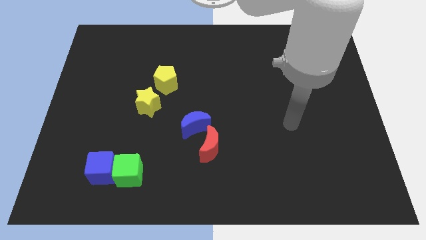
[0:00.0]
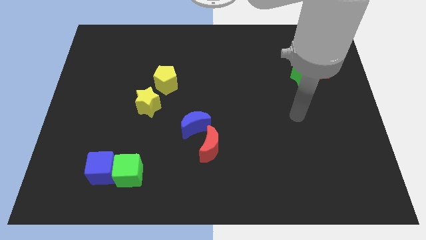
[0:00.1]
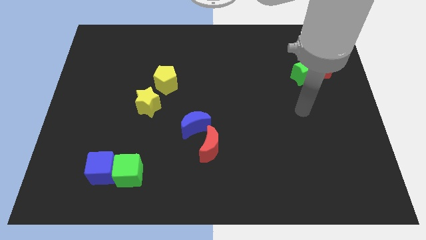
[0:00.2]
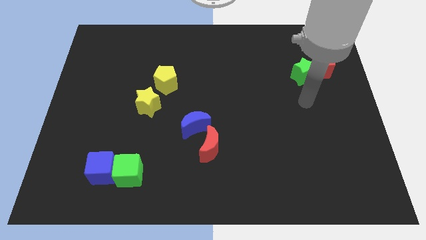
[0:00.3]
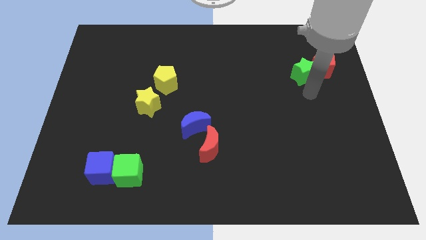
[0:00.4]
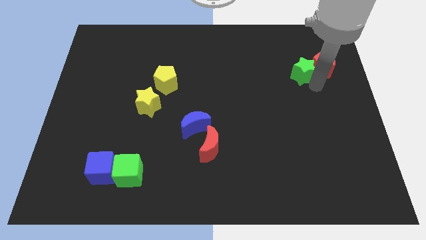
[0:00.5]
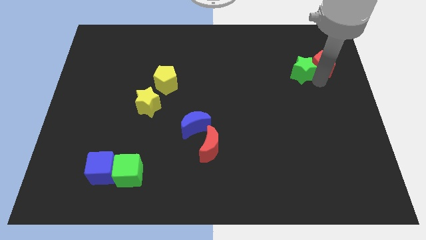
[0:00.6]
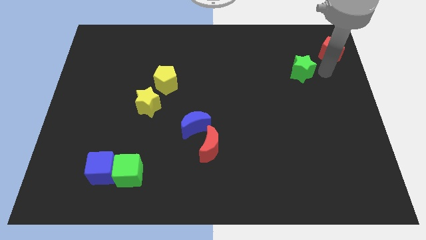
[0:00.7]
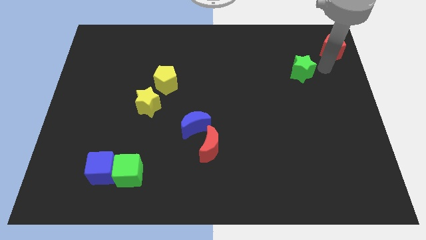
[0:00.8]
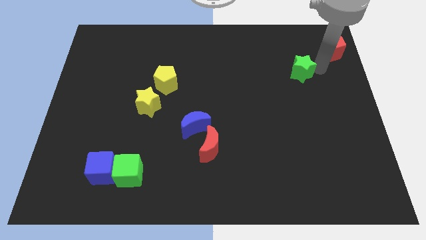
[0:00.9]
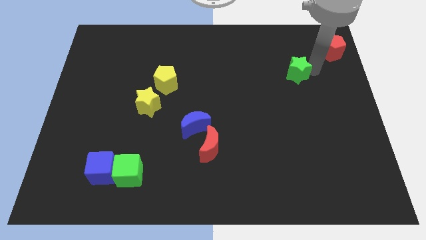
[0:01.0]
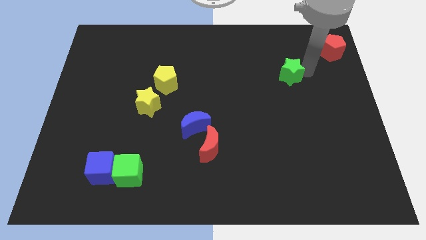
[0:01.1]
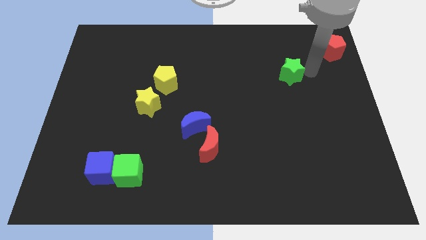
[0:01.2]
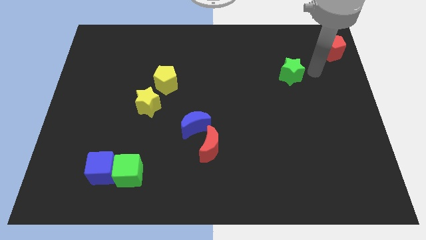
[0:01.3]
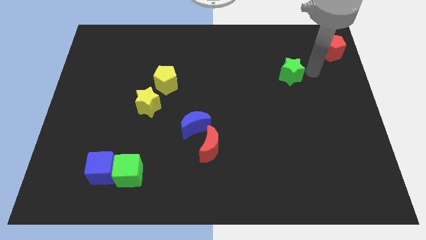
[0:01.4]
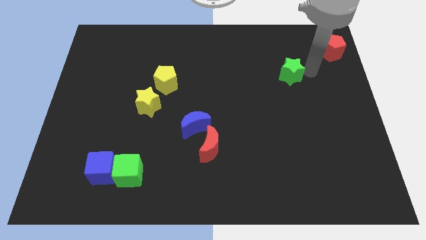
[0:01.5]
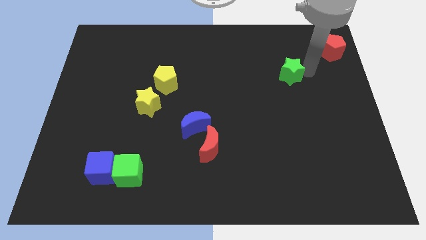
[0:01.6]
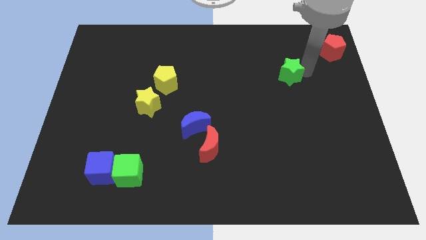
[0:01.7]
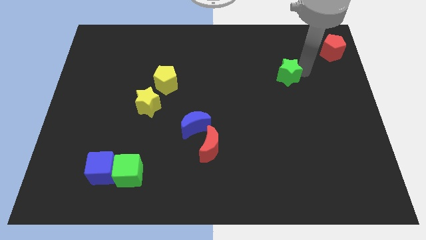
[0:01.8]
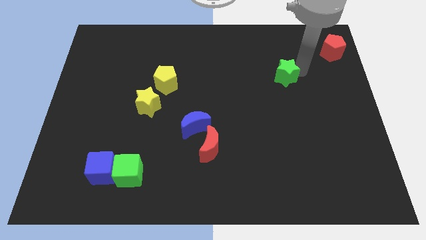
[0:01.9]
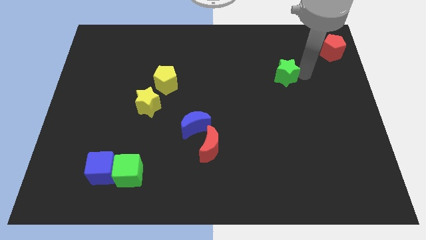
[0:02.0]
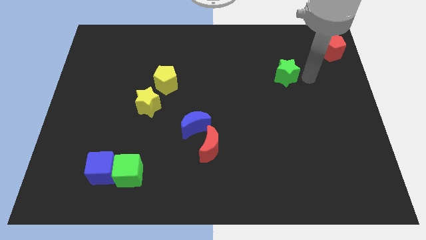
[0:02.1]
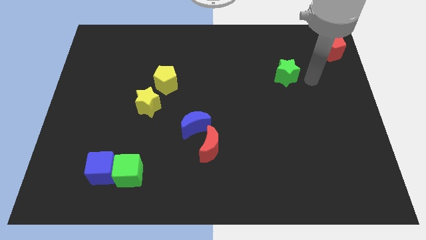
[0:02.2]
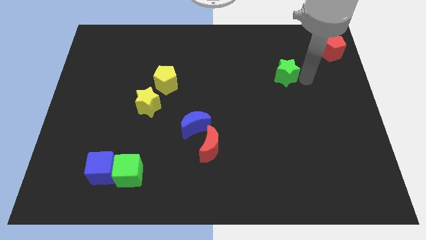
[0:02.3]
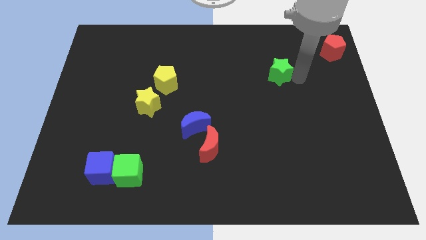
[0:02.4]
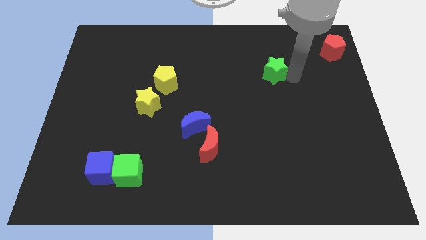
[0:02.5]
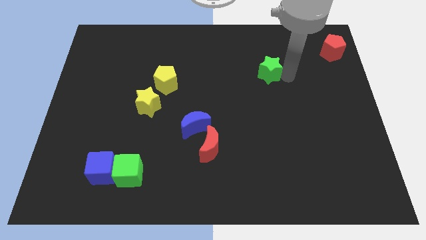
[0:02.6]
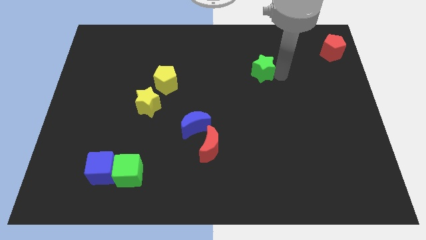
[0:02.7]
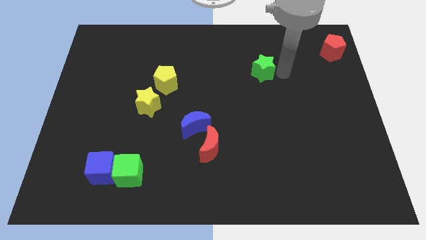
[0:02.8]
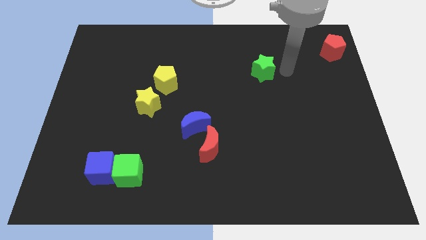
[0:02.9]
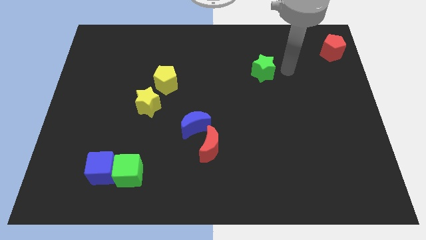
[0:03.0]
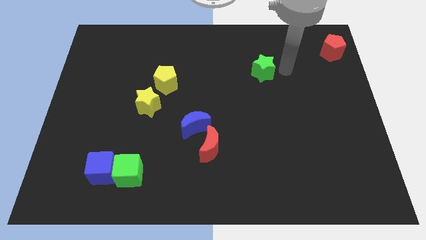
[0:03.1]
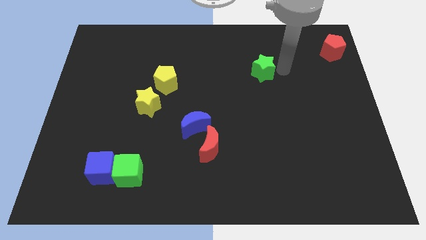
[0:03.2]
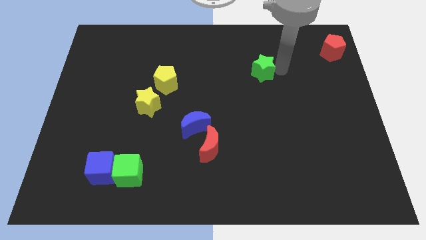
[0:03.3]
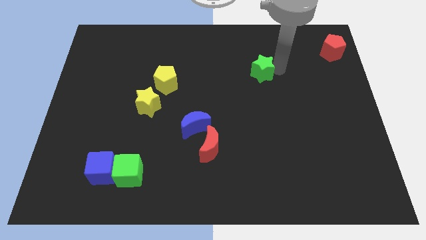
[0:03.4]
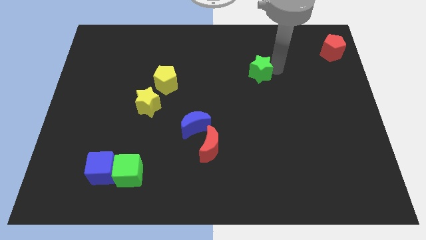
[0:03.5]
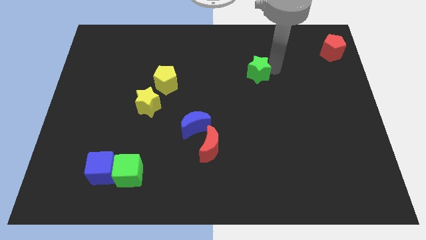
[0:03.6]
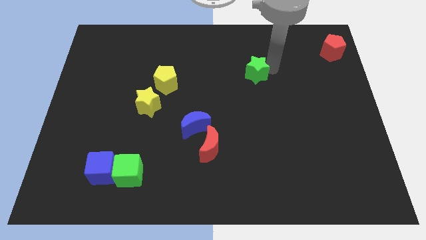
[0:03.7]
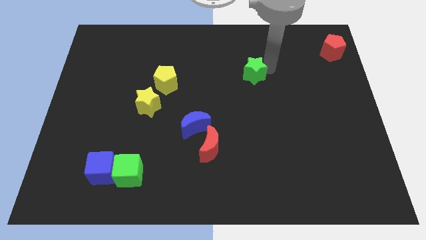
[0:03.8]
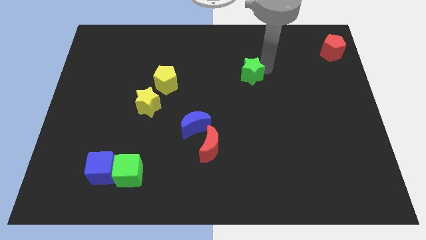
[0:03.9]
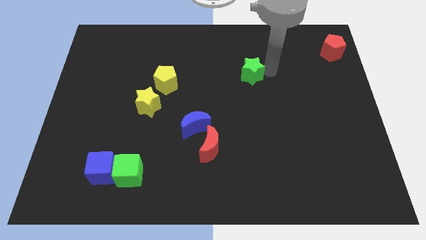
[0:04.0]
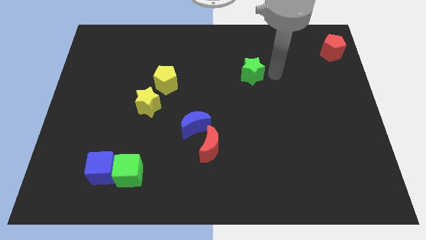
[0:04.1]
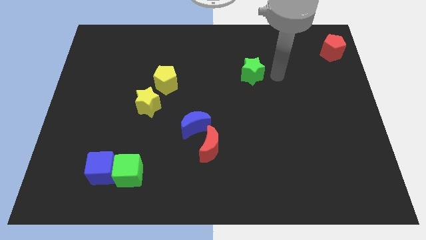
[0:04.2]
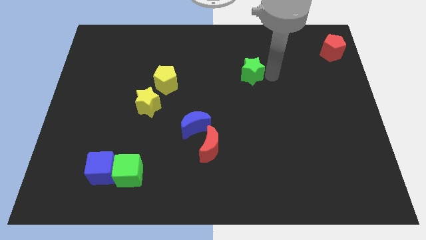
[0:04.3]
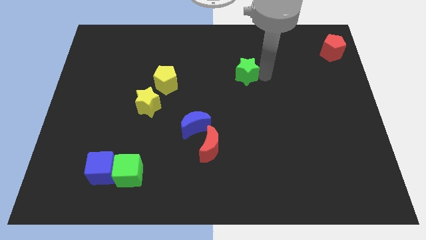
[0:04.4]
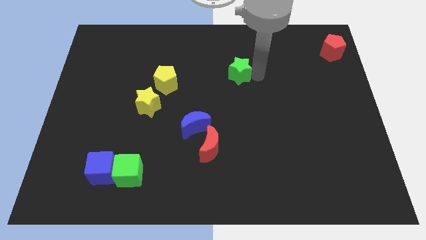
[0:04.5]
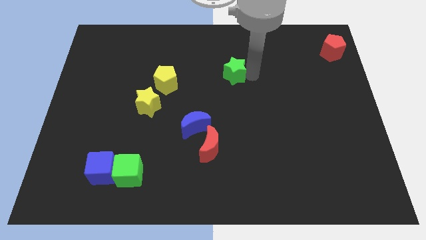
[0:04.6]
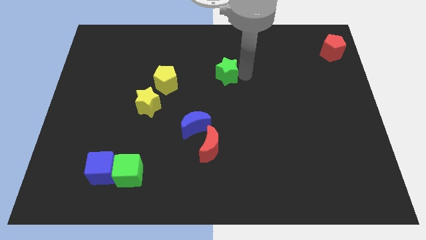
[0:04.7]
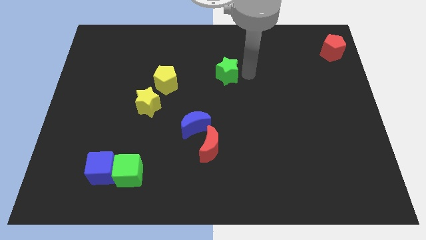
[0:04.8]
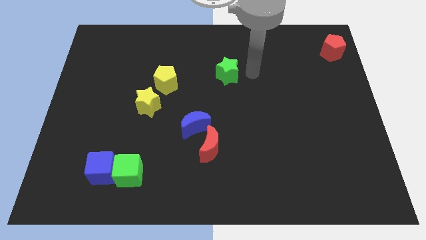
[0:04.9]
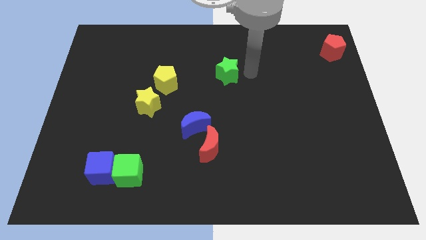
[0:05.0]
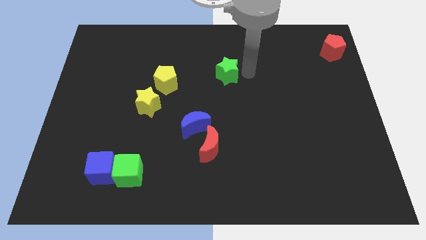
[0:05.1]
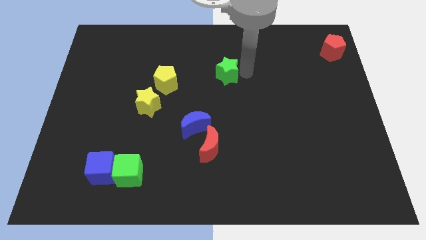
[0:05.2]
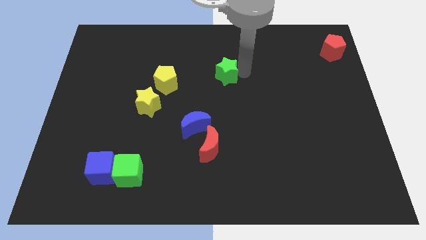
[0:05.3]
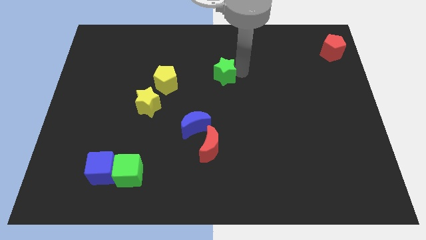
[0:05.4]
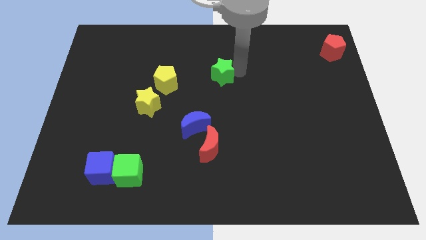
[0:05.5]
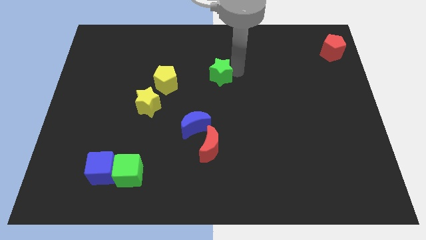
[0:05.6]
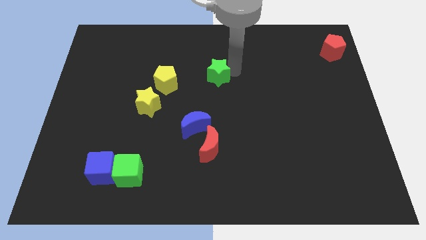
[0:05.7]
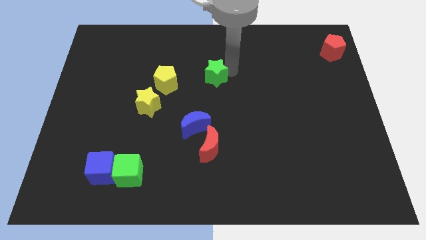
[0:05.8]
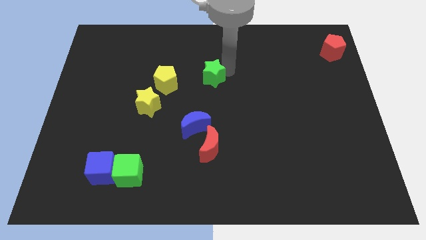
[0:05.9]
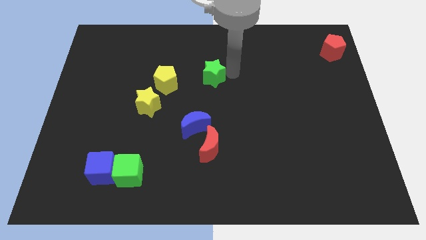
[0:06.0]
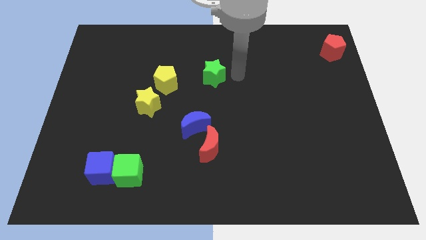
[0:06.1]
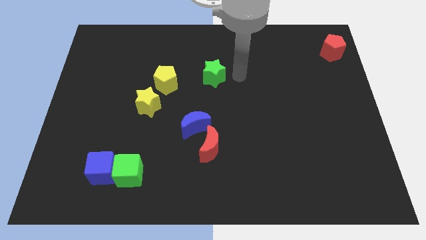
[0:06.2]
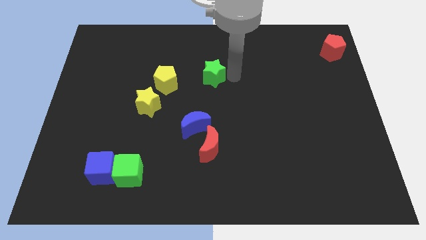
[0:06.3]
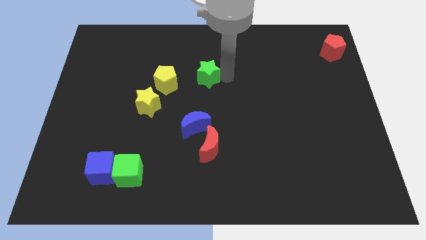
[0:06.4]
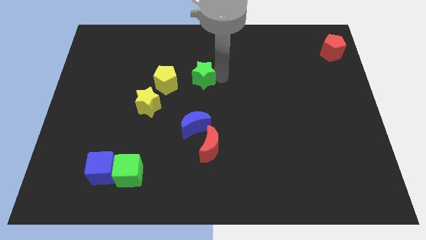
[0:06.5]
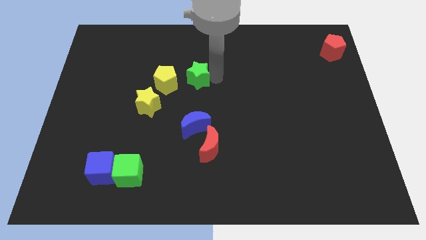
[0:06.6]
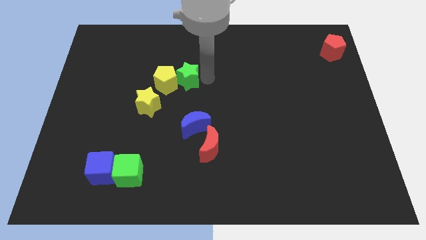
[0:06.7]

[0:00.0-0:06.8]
move the green star close to the yellow pentagon

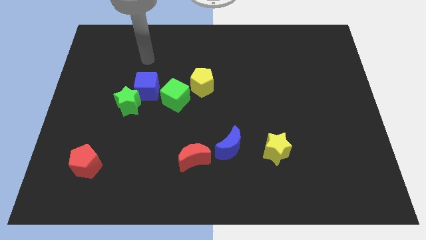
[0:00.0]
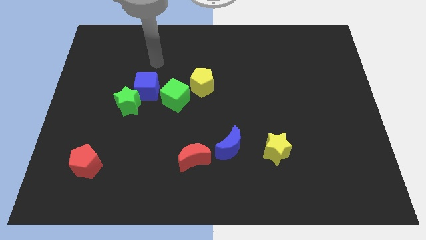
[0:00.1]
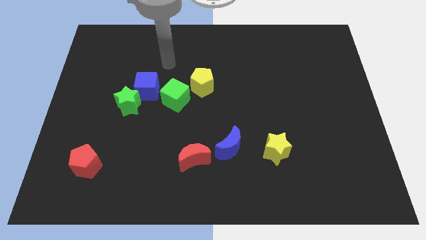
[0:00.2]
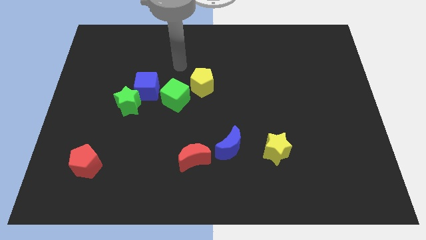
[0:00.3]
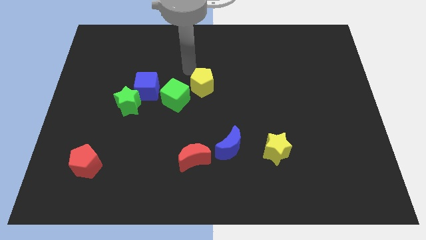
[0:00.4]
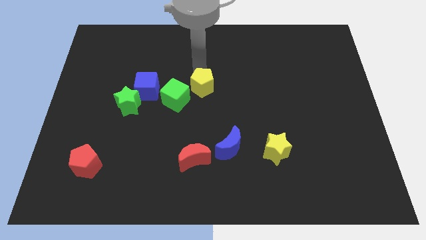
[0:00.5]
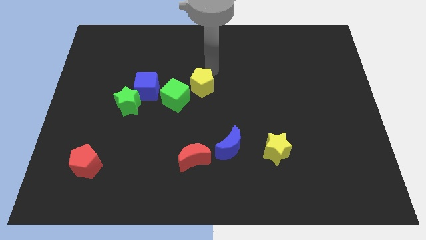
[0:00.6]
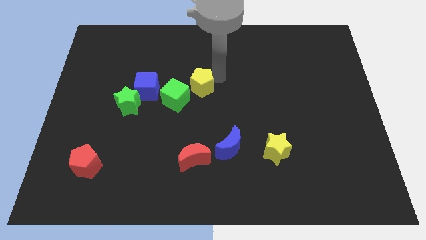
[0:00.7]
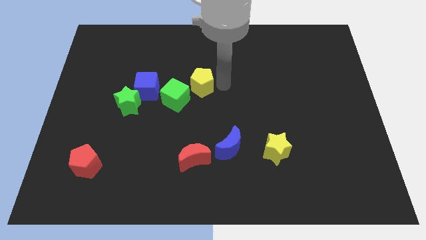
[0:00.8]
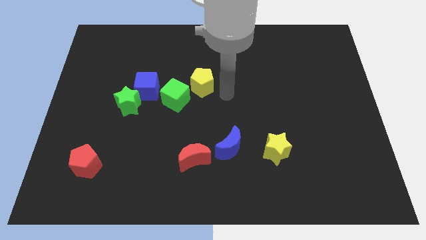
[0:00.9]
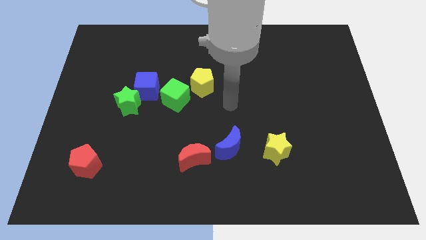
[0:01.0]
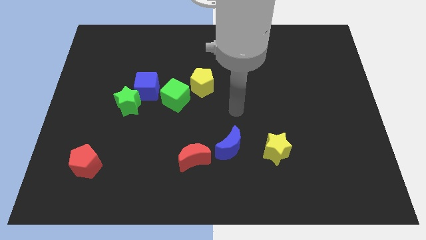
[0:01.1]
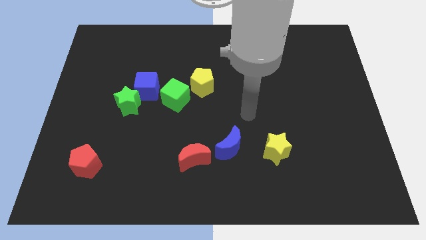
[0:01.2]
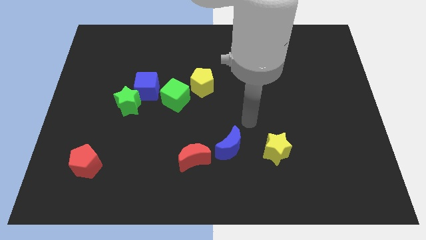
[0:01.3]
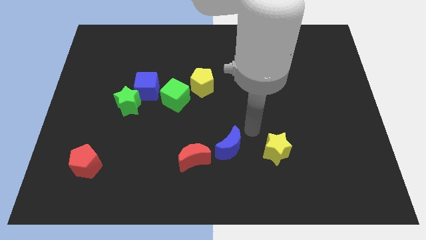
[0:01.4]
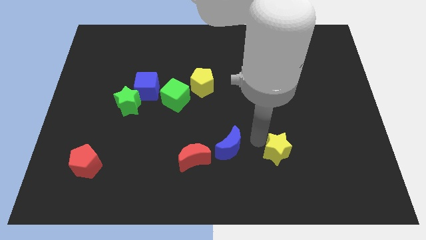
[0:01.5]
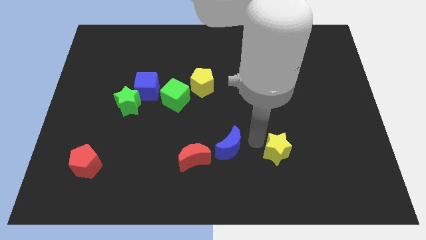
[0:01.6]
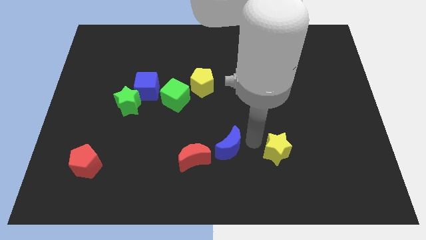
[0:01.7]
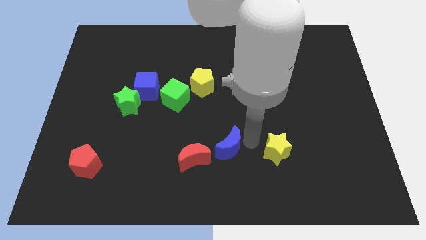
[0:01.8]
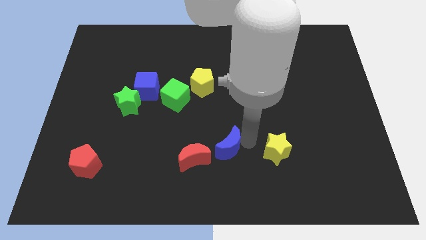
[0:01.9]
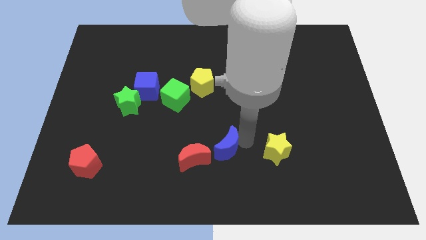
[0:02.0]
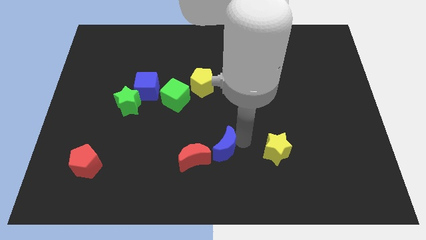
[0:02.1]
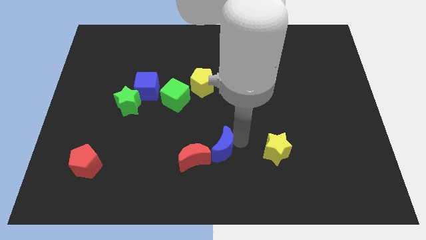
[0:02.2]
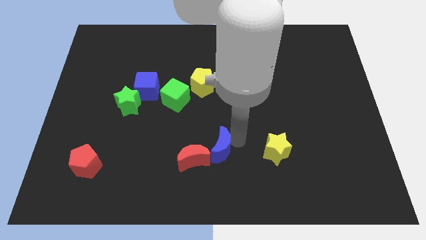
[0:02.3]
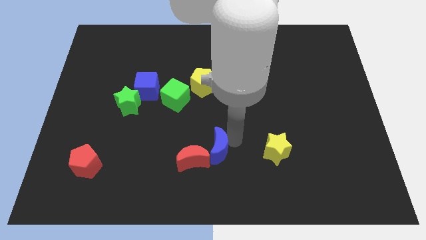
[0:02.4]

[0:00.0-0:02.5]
move the blue moon next to the red moon
